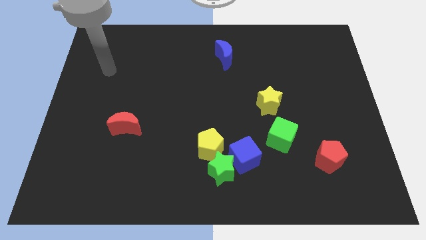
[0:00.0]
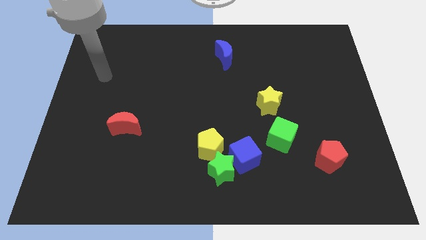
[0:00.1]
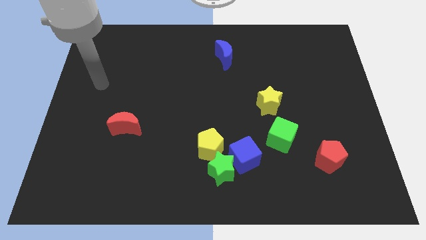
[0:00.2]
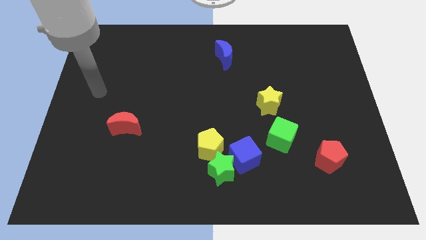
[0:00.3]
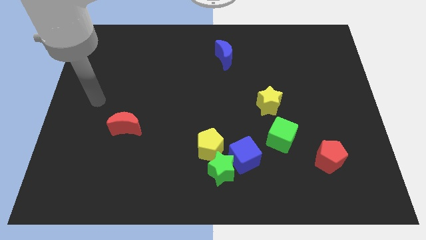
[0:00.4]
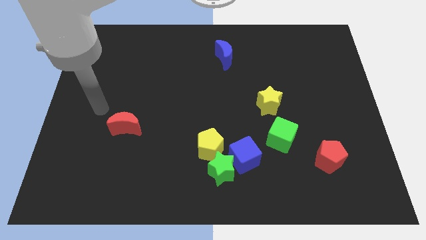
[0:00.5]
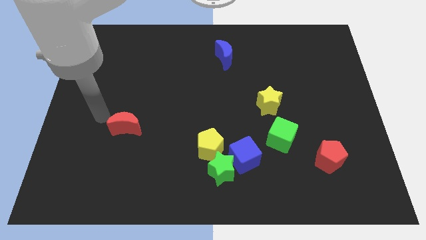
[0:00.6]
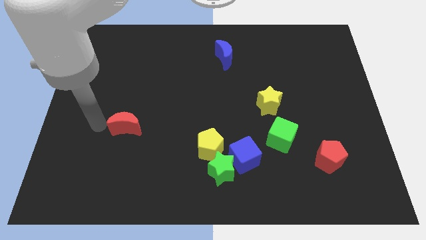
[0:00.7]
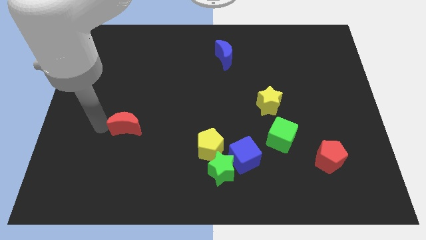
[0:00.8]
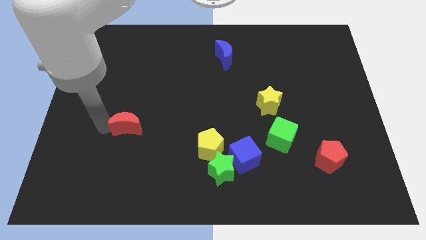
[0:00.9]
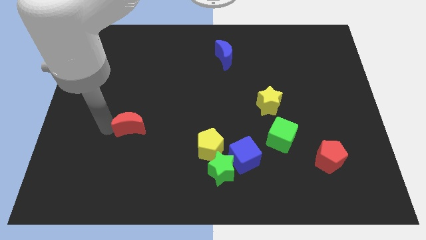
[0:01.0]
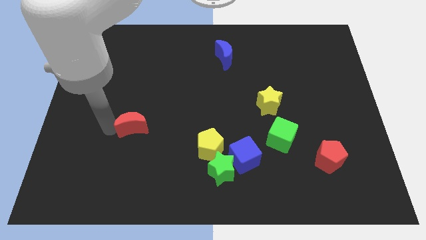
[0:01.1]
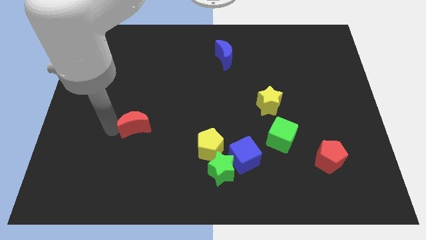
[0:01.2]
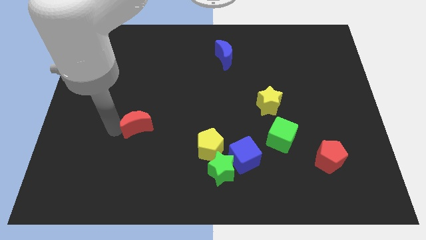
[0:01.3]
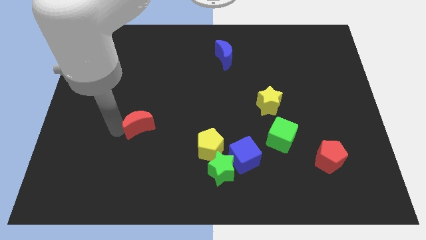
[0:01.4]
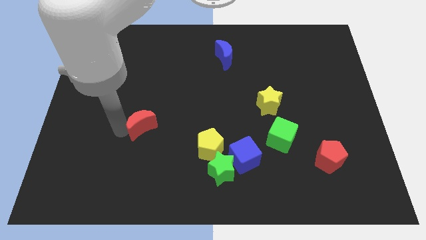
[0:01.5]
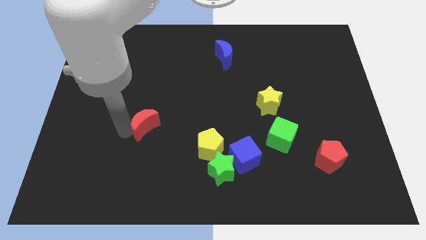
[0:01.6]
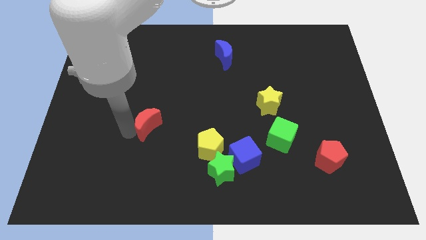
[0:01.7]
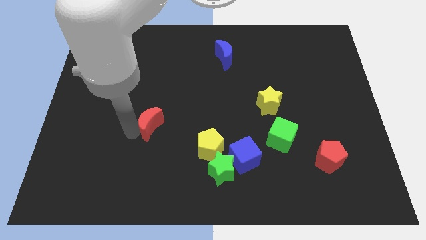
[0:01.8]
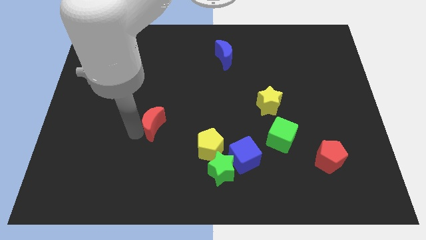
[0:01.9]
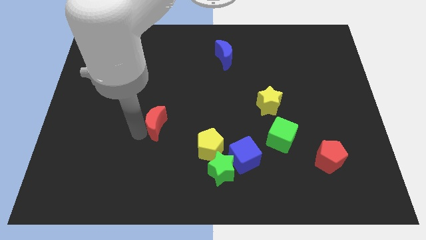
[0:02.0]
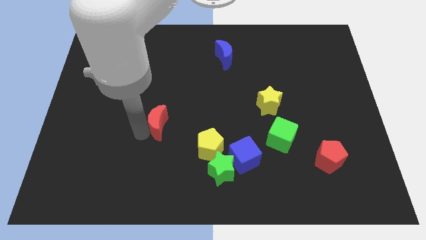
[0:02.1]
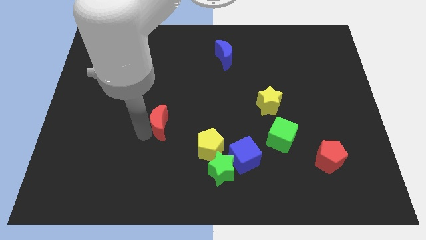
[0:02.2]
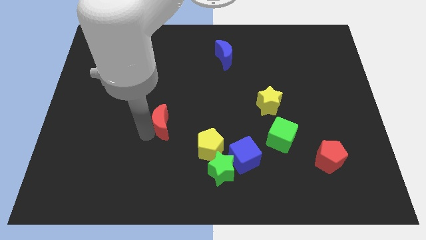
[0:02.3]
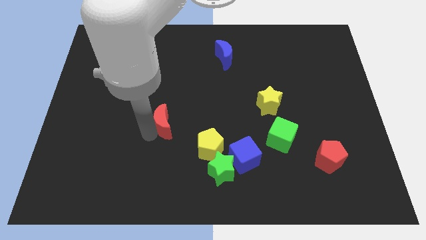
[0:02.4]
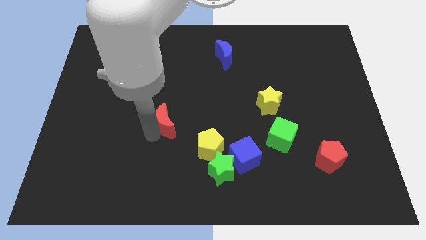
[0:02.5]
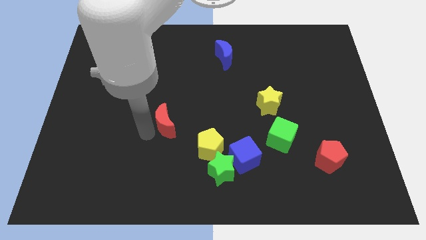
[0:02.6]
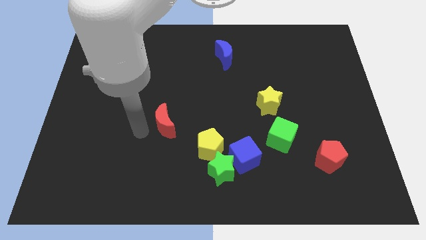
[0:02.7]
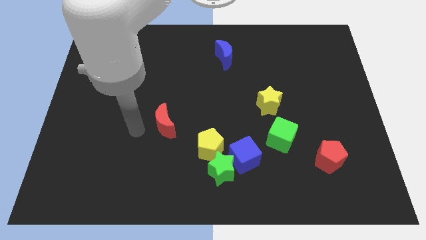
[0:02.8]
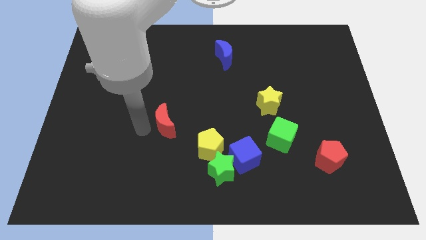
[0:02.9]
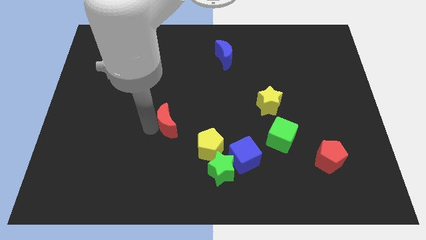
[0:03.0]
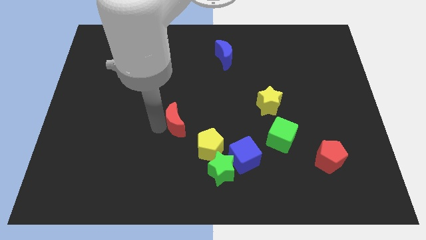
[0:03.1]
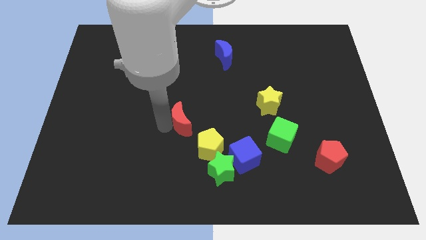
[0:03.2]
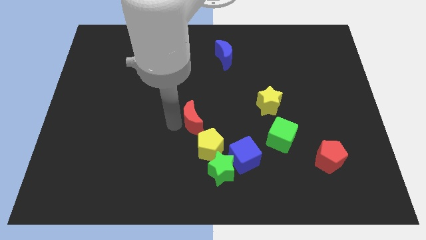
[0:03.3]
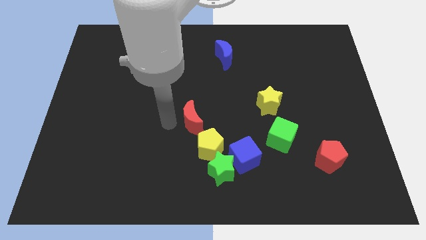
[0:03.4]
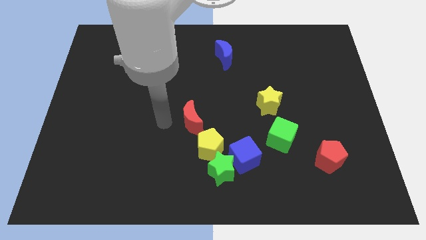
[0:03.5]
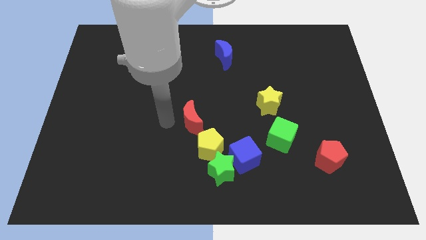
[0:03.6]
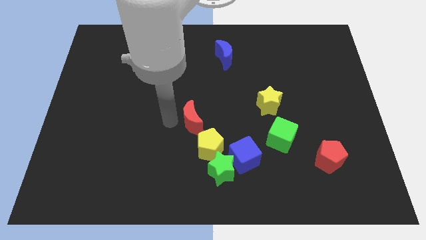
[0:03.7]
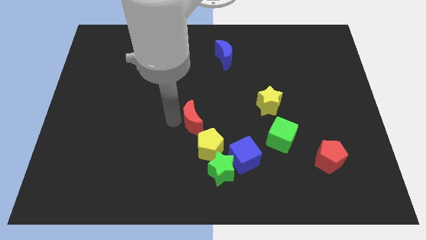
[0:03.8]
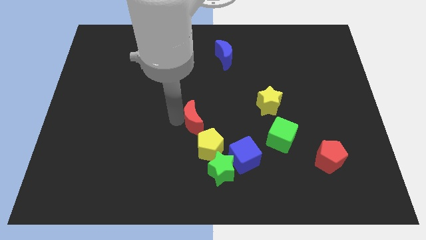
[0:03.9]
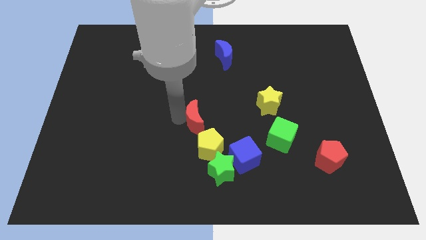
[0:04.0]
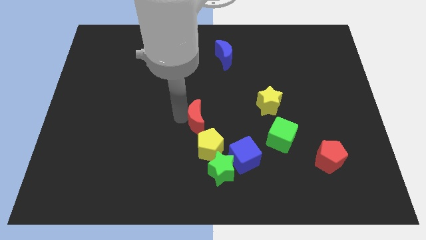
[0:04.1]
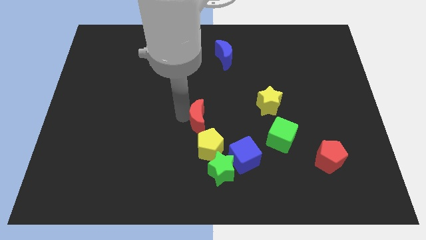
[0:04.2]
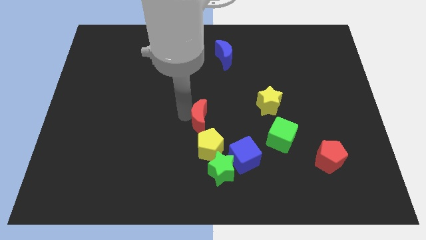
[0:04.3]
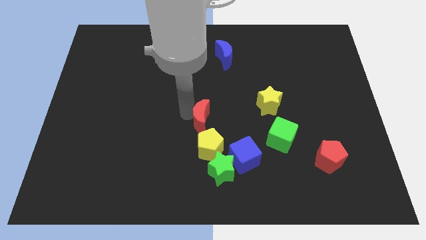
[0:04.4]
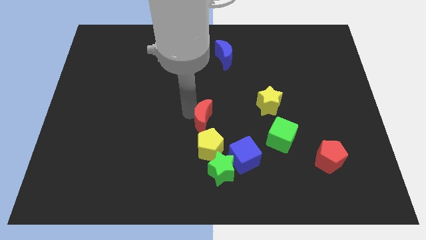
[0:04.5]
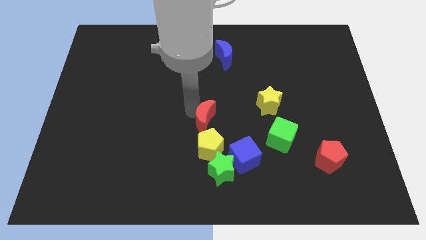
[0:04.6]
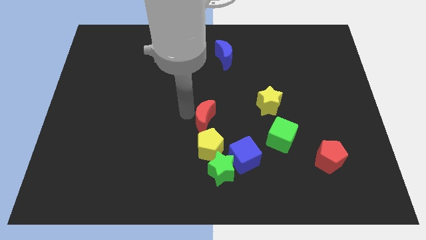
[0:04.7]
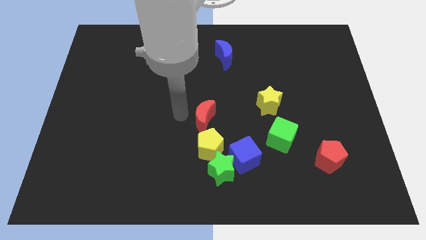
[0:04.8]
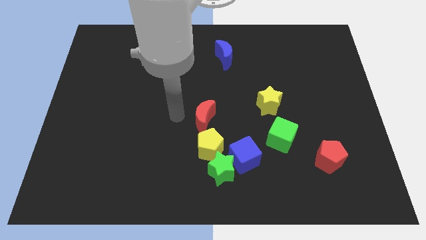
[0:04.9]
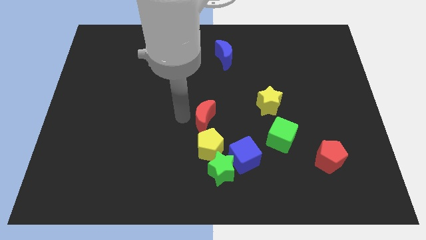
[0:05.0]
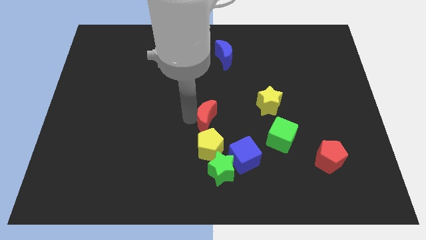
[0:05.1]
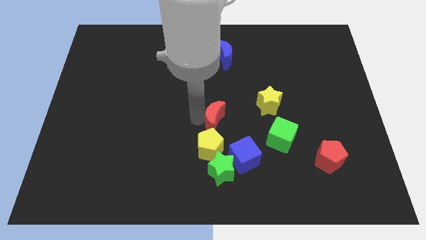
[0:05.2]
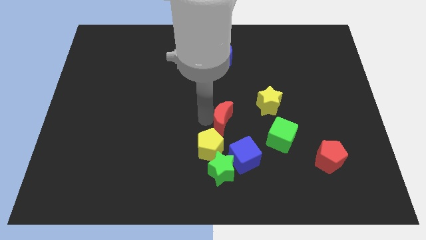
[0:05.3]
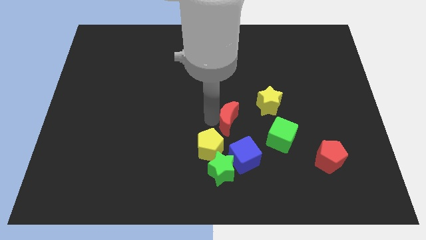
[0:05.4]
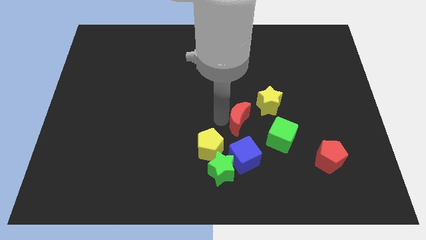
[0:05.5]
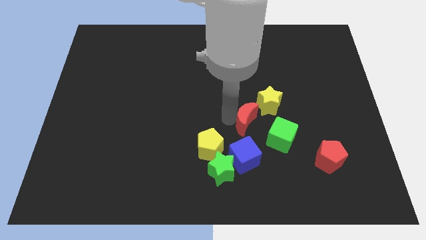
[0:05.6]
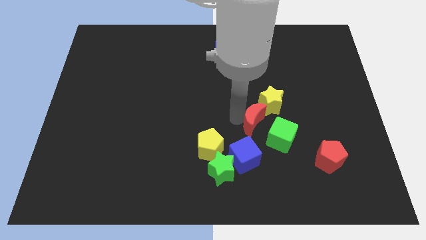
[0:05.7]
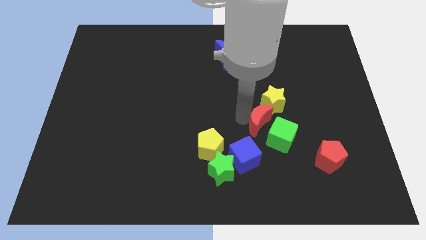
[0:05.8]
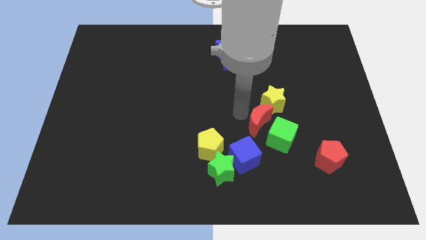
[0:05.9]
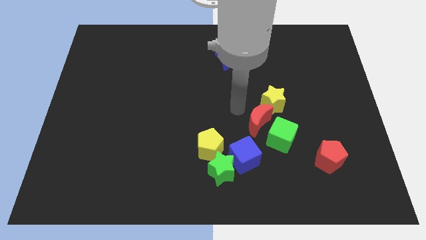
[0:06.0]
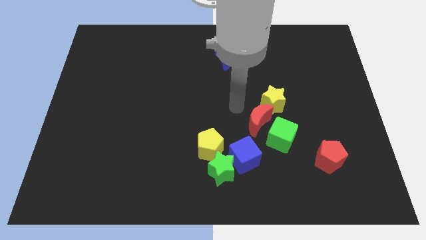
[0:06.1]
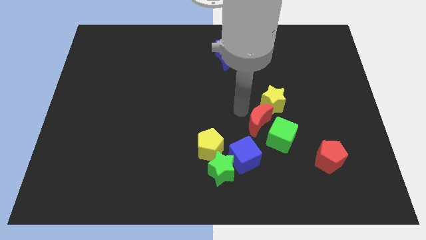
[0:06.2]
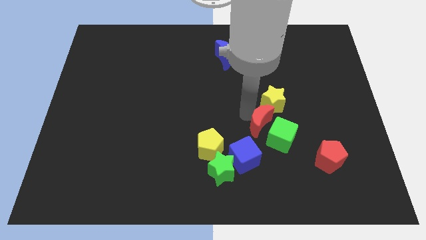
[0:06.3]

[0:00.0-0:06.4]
move the red moon next to the green cube

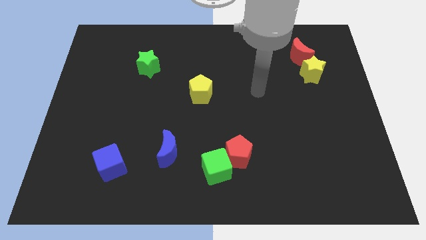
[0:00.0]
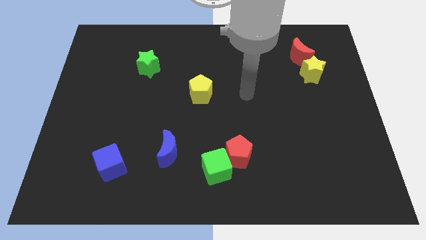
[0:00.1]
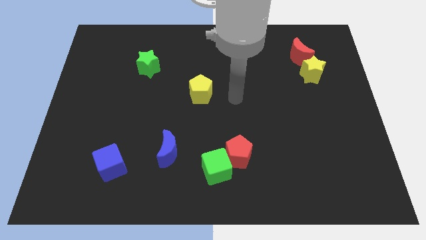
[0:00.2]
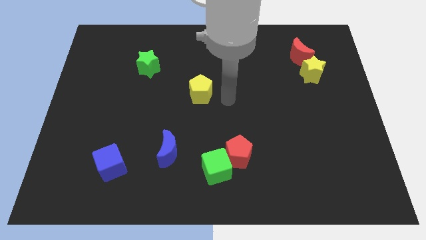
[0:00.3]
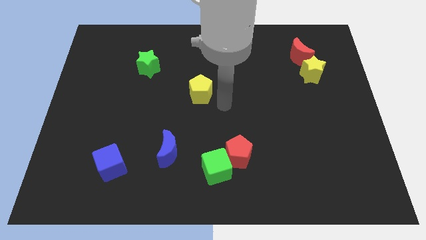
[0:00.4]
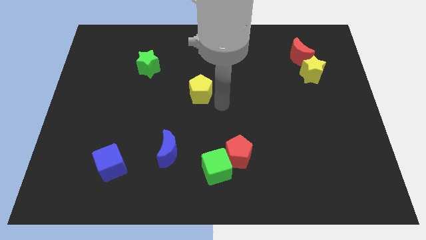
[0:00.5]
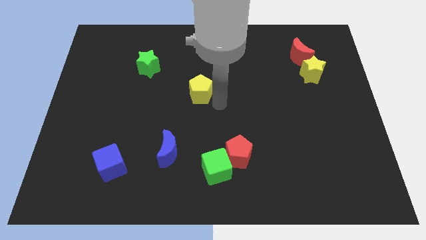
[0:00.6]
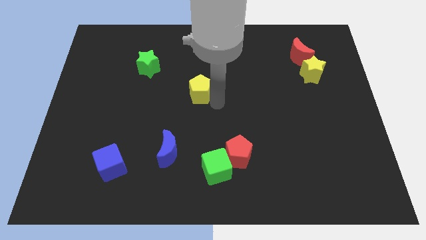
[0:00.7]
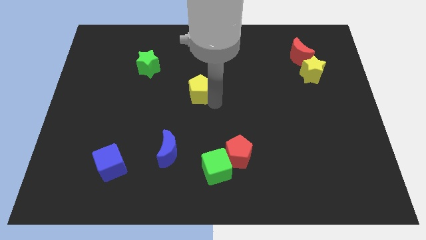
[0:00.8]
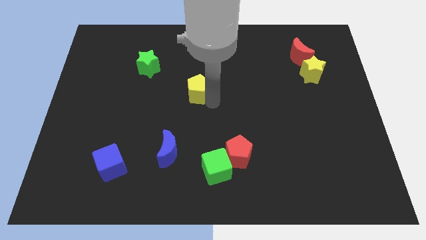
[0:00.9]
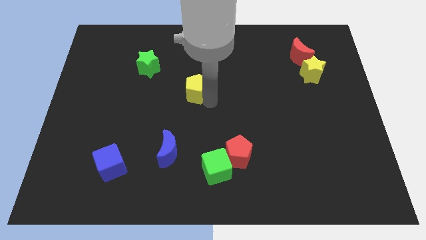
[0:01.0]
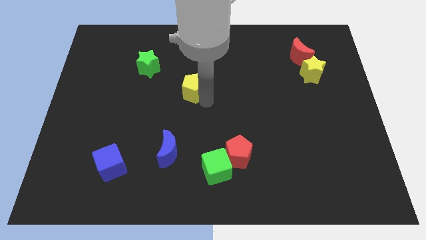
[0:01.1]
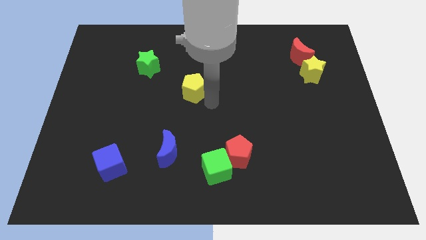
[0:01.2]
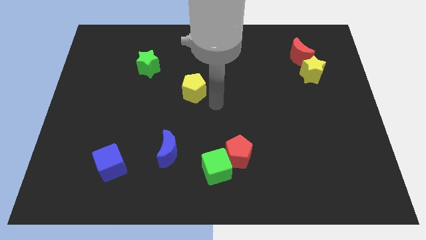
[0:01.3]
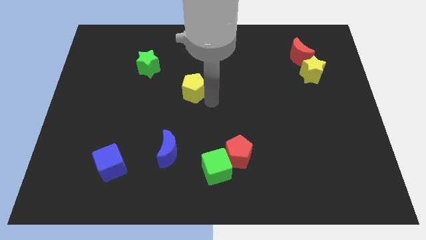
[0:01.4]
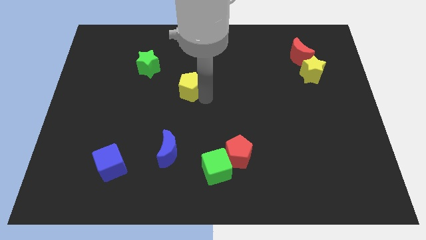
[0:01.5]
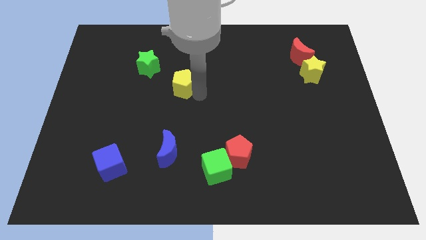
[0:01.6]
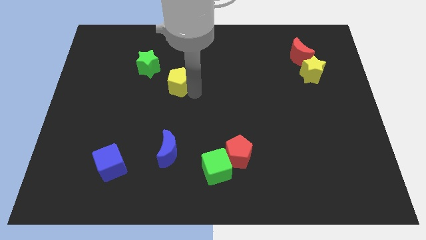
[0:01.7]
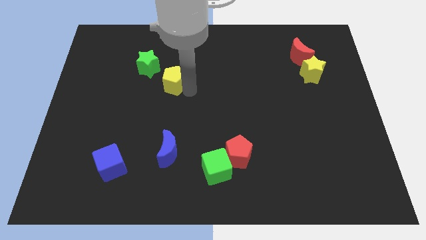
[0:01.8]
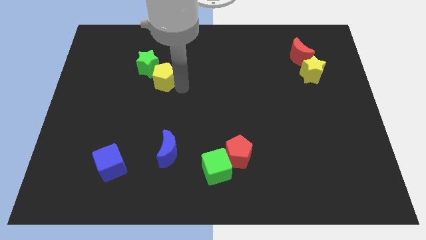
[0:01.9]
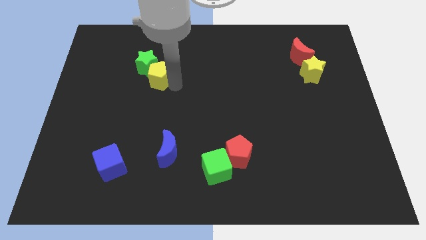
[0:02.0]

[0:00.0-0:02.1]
put the yellow pentagon close to the green star
